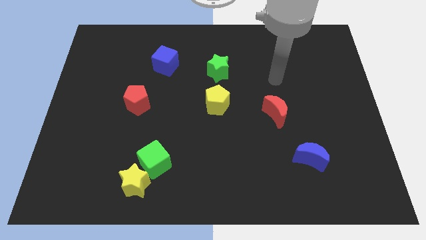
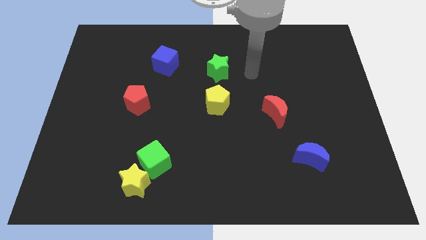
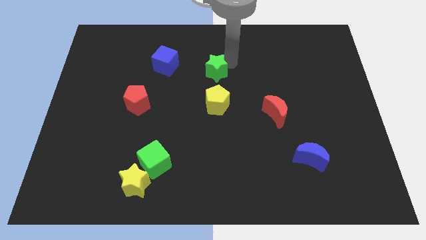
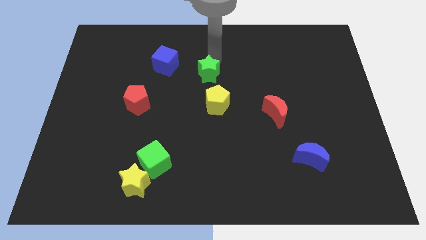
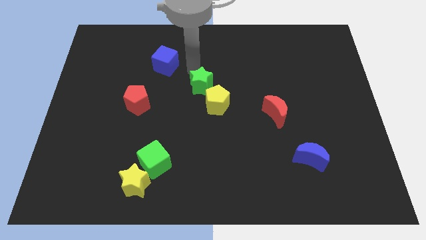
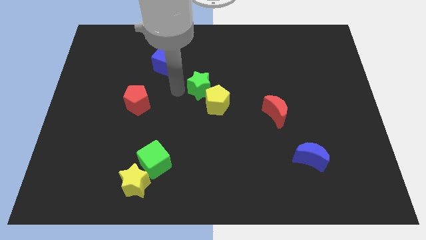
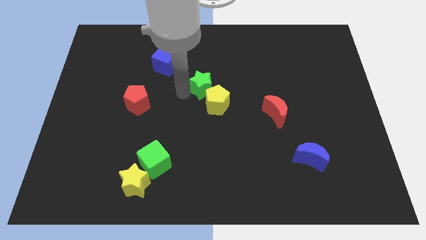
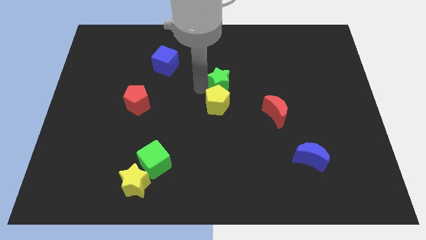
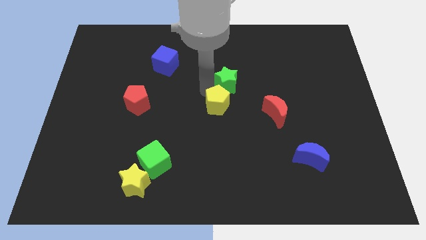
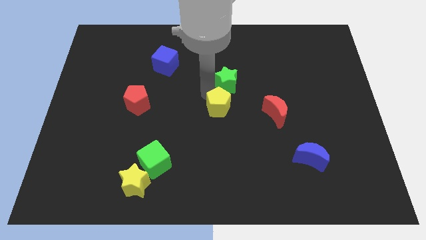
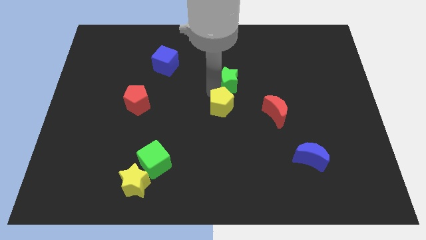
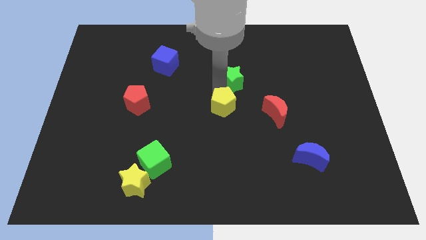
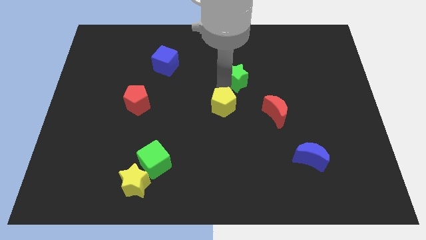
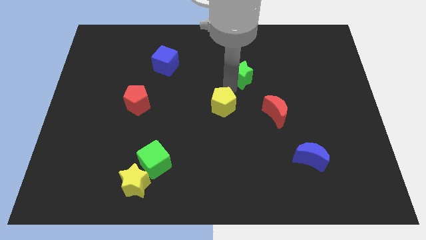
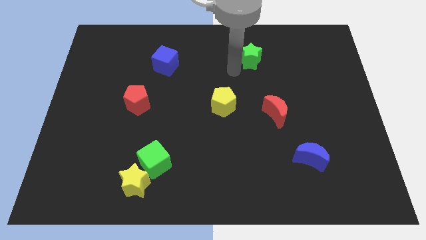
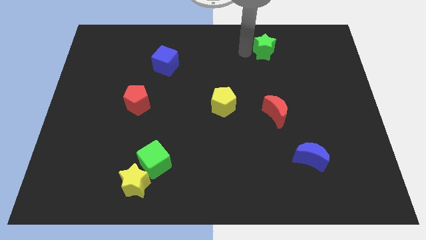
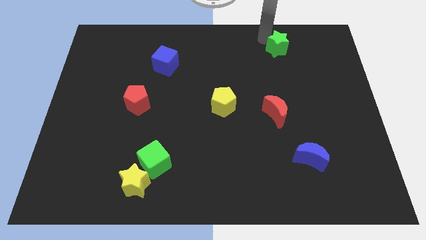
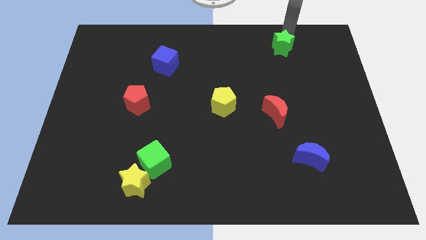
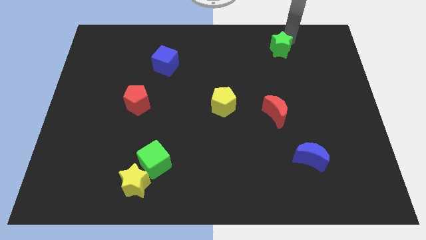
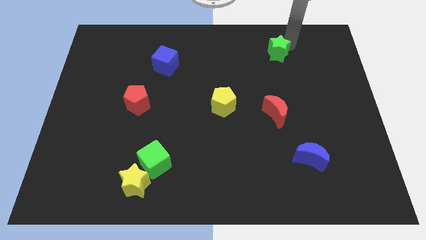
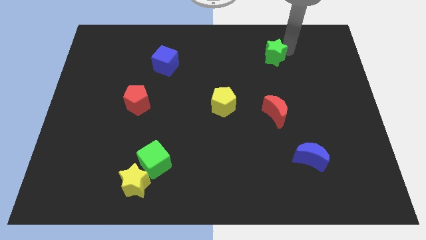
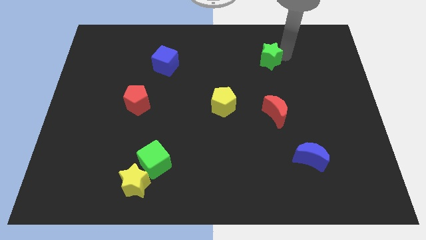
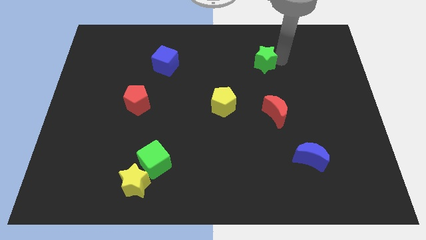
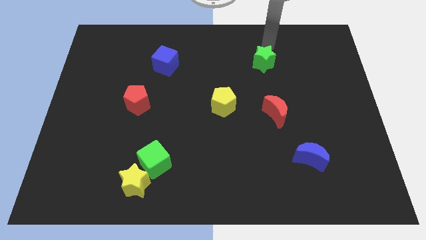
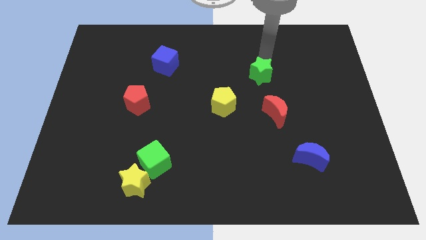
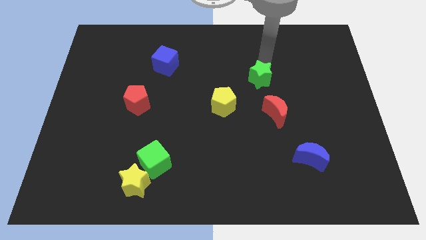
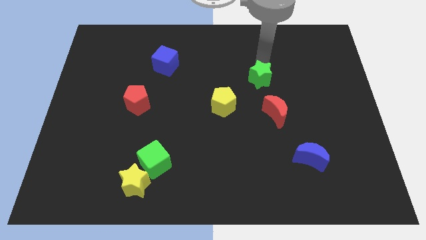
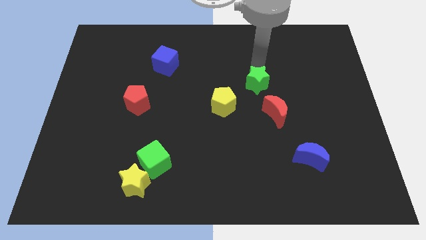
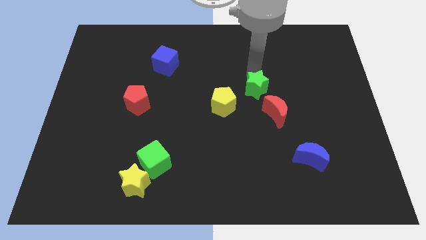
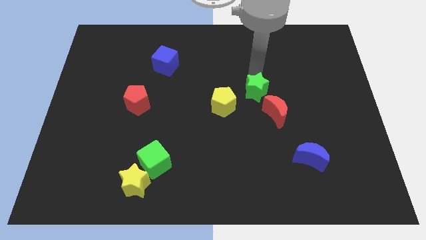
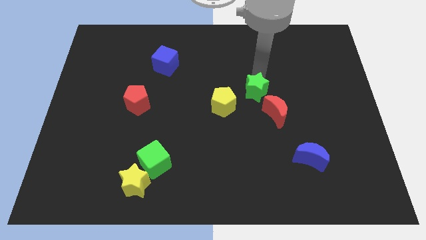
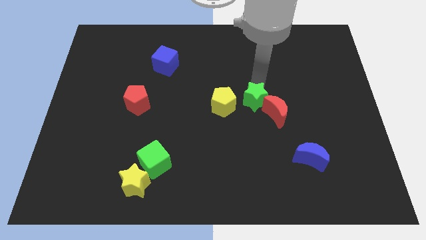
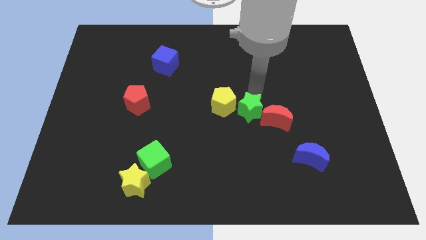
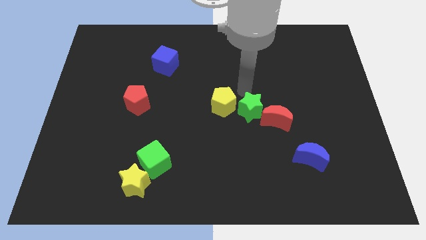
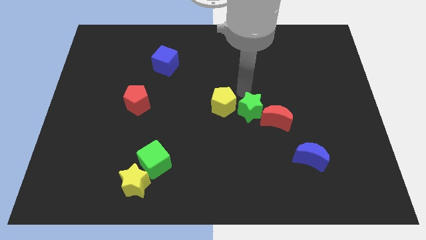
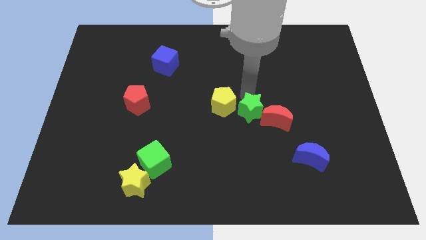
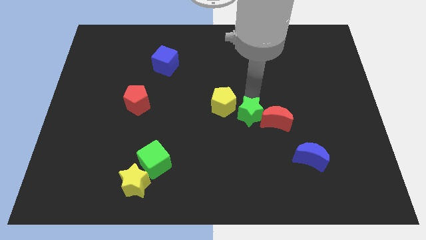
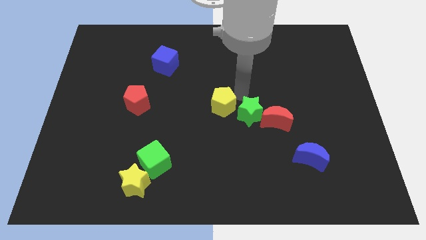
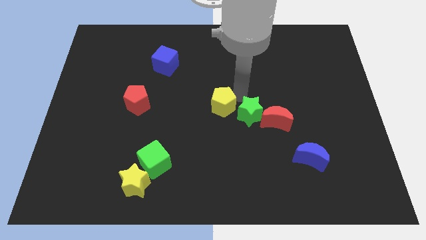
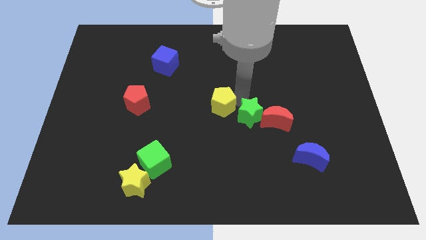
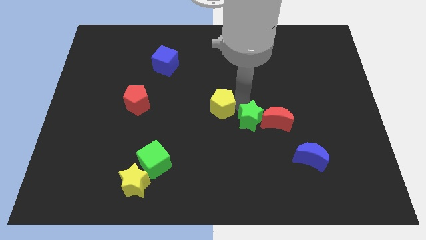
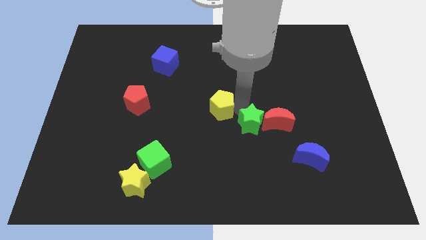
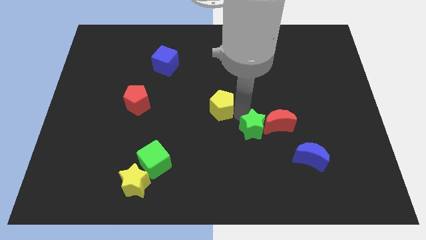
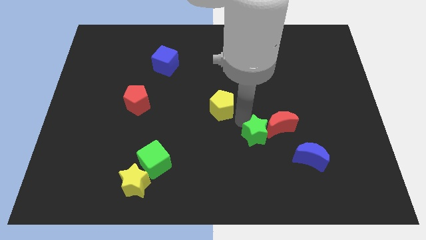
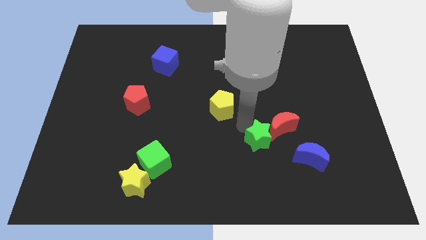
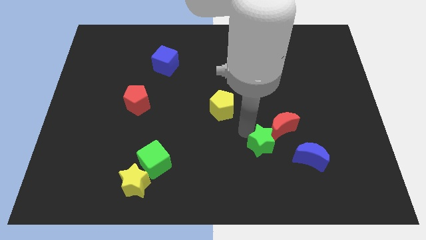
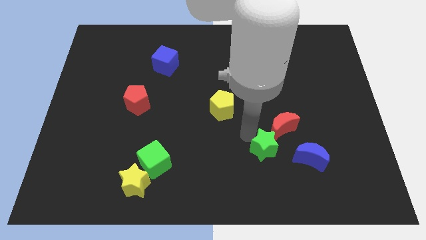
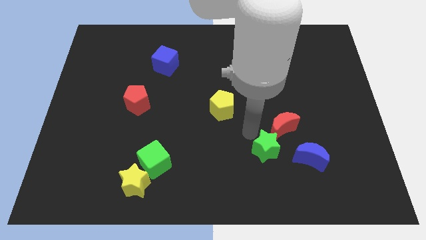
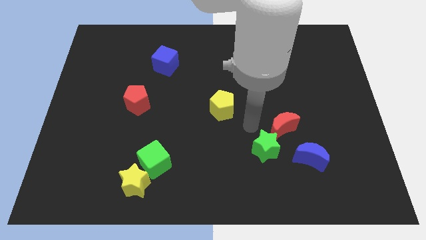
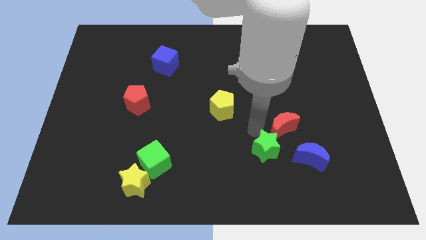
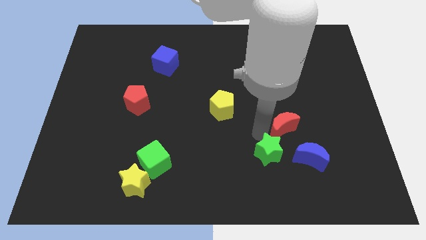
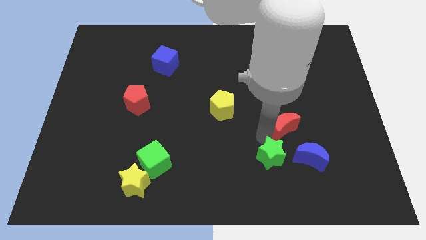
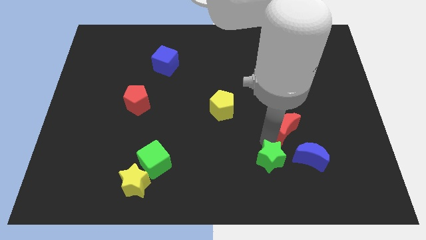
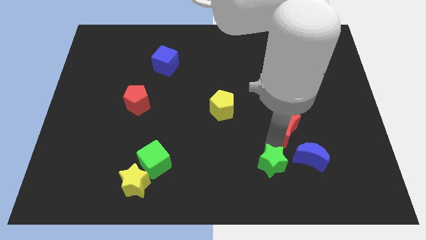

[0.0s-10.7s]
move the green star to the bottom left of the blue moon

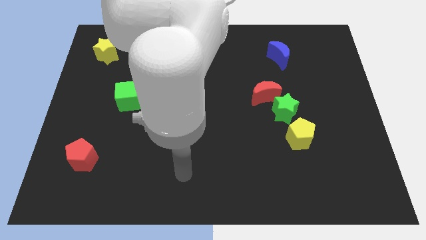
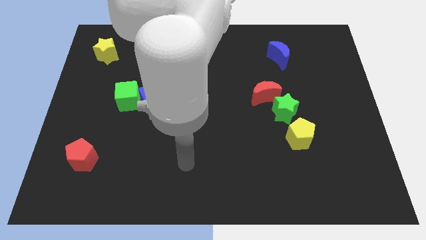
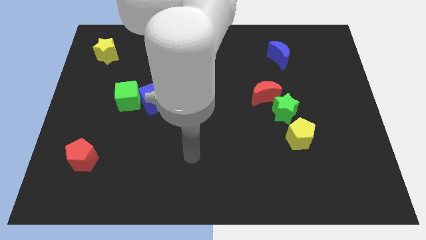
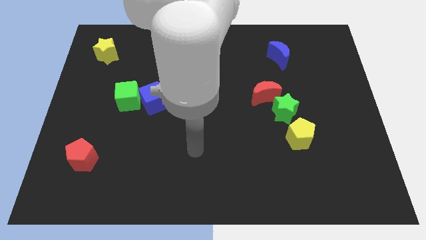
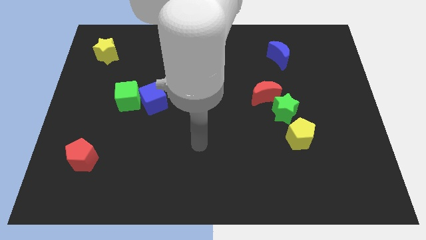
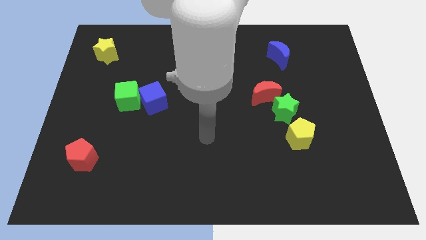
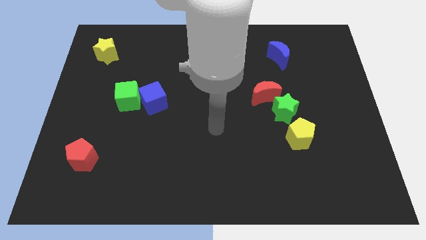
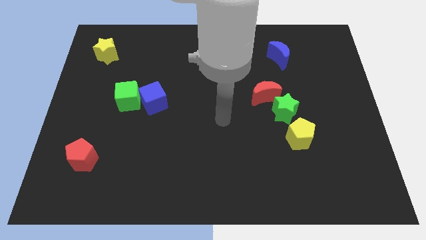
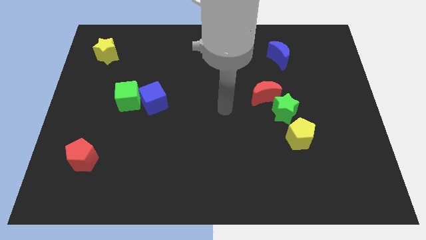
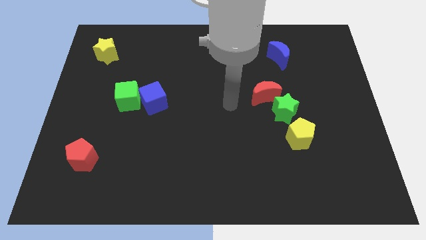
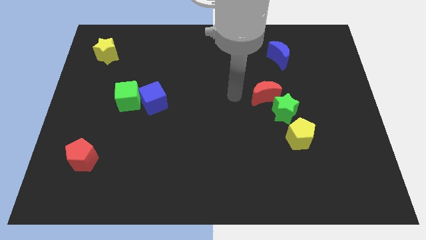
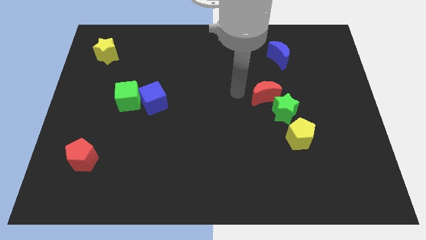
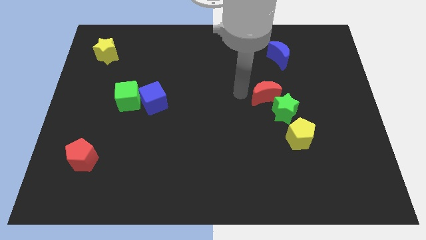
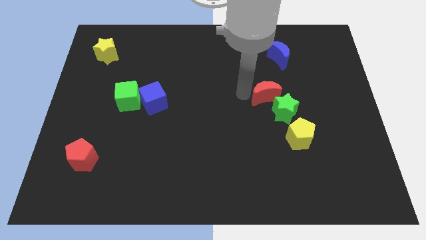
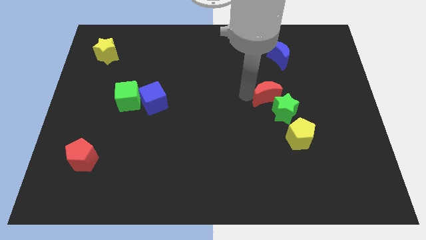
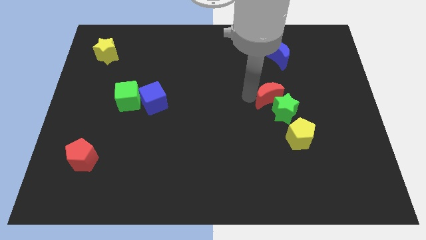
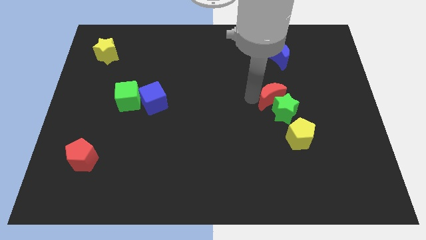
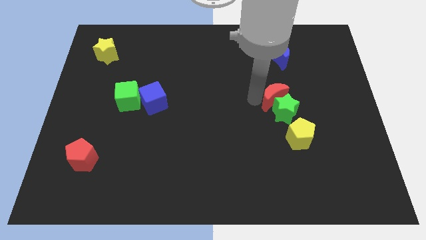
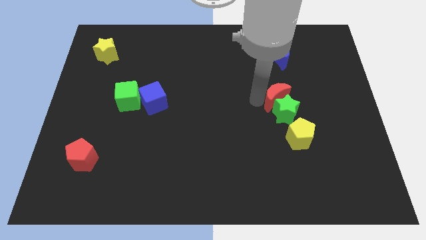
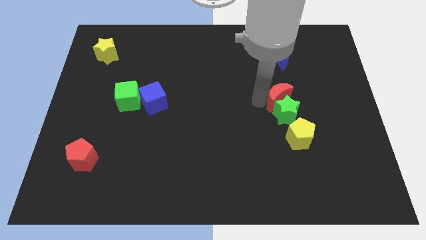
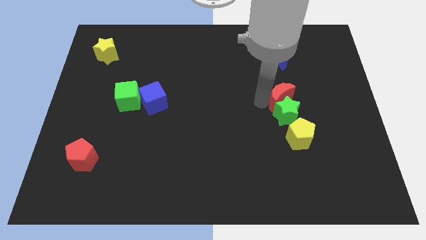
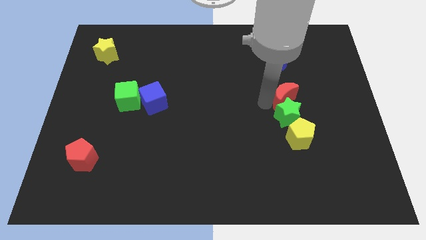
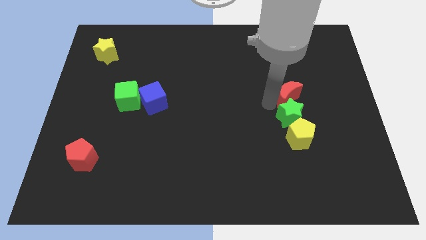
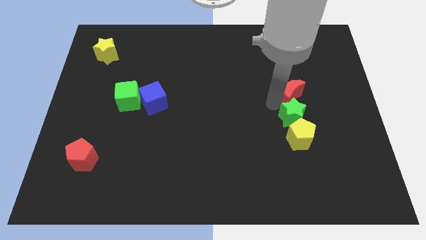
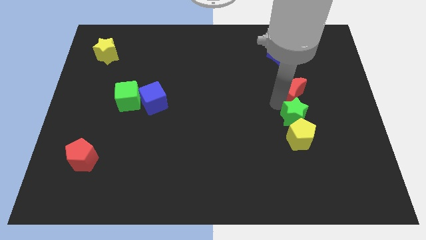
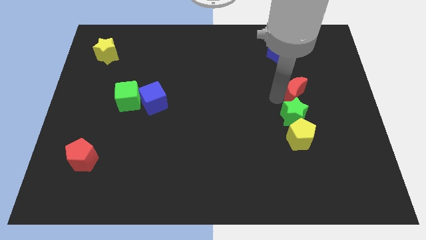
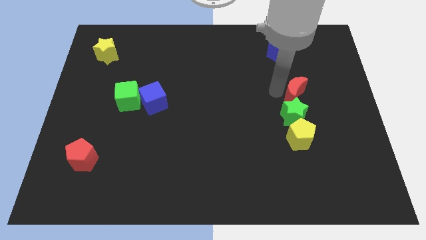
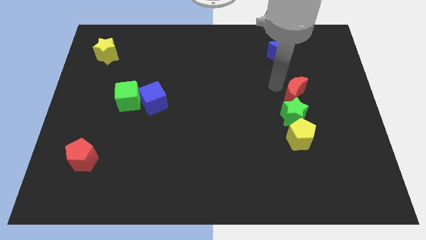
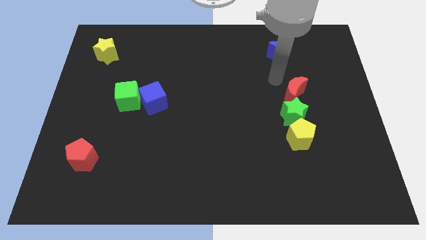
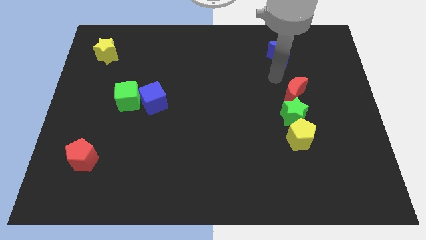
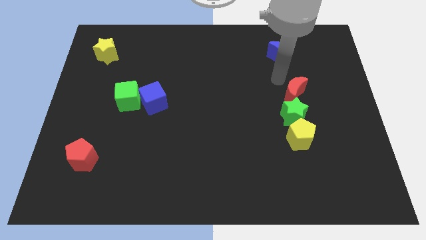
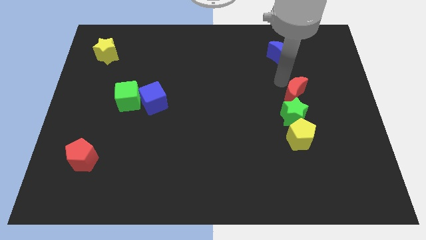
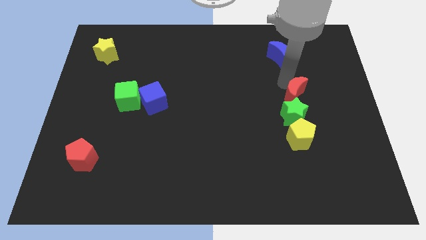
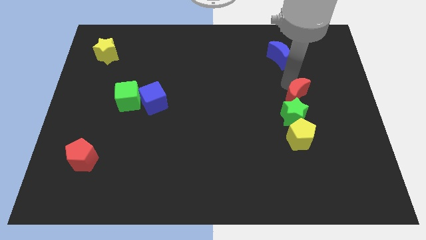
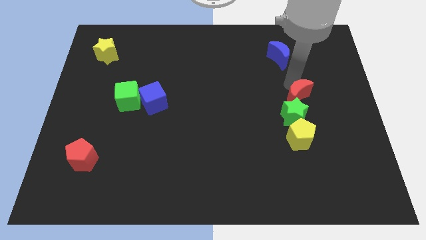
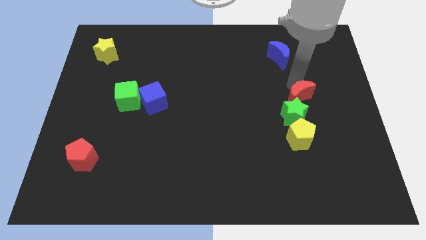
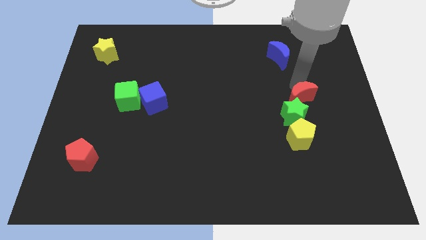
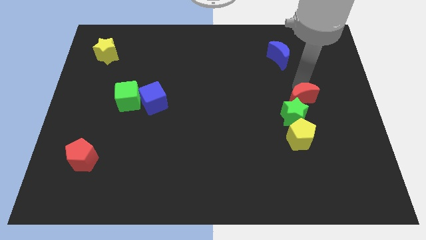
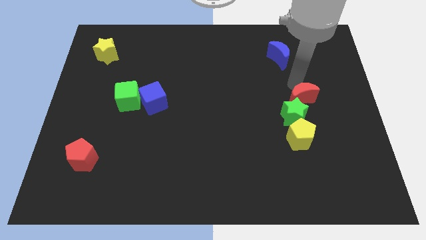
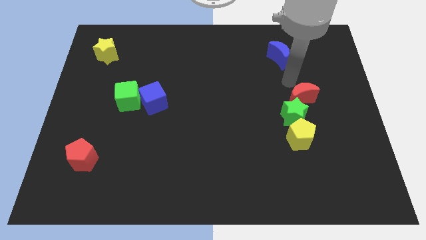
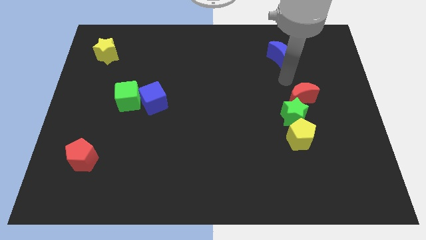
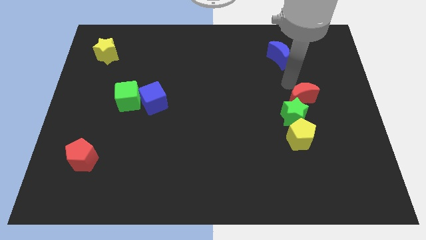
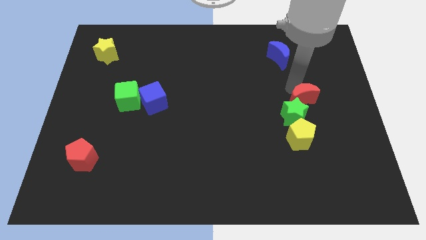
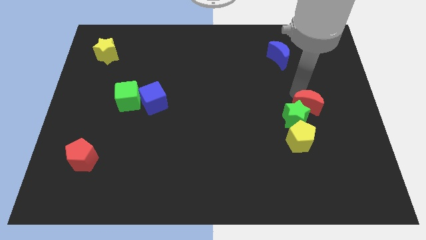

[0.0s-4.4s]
put the red moon diagonally up and to the right of the yellow pentagon
